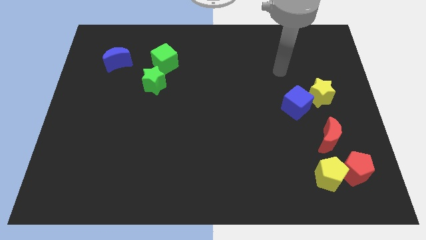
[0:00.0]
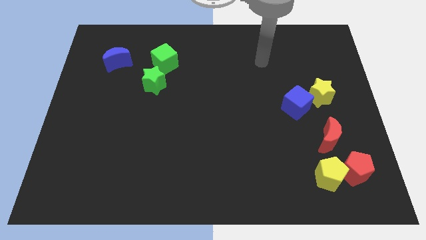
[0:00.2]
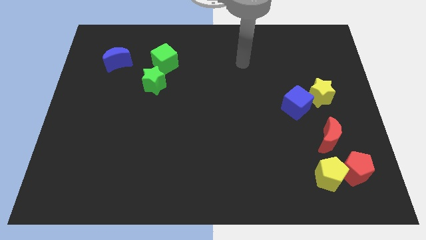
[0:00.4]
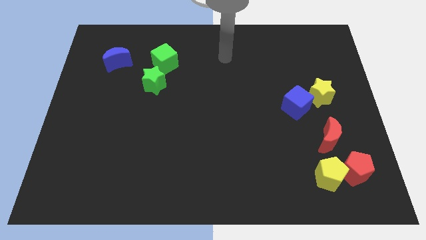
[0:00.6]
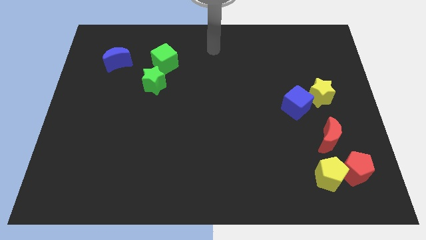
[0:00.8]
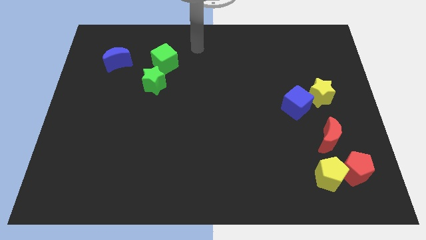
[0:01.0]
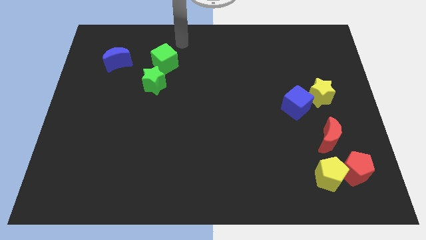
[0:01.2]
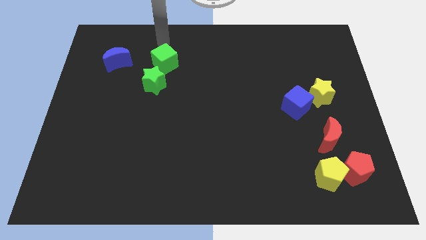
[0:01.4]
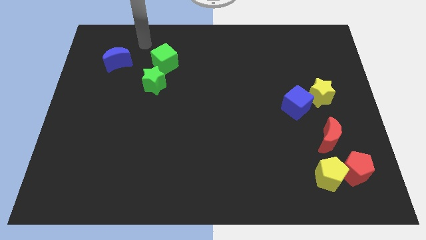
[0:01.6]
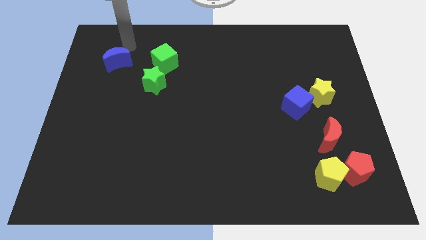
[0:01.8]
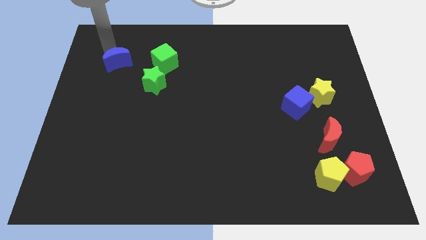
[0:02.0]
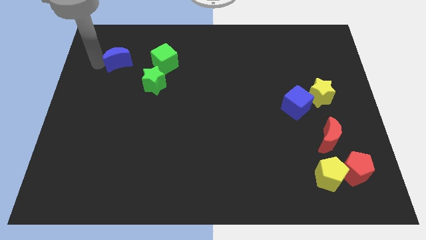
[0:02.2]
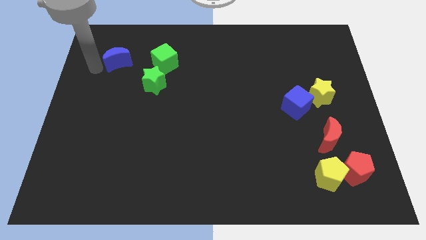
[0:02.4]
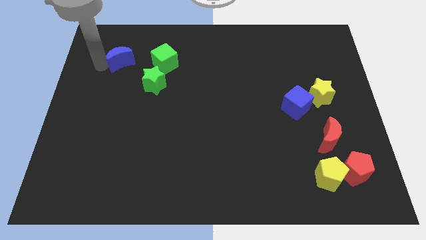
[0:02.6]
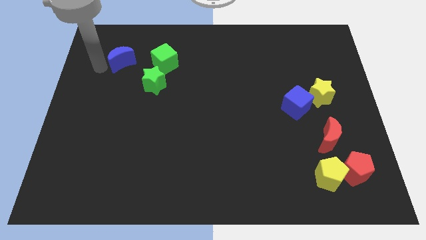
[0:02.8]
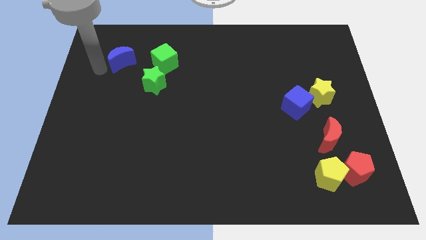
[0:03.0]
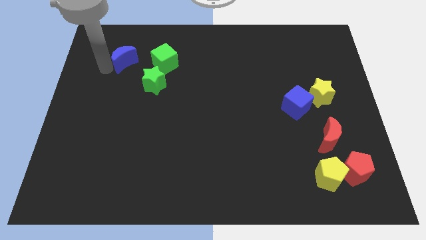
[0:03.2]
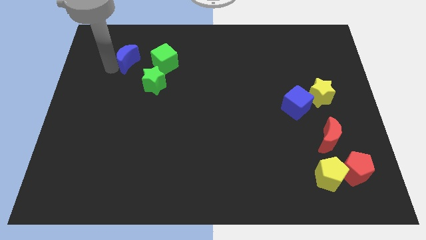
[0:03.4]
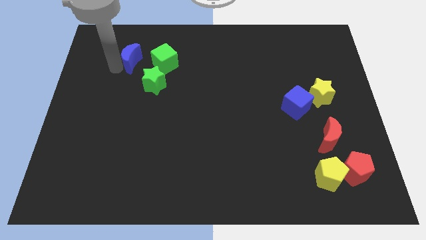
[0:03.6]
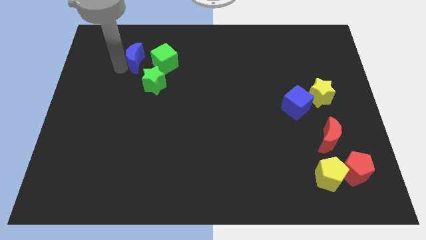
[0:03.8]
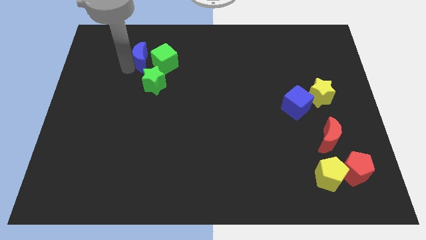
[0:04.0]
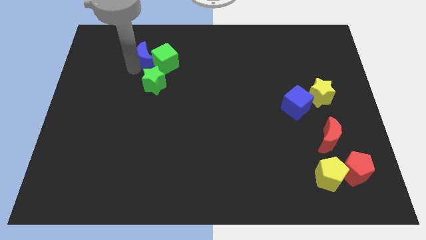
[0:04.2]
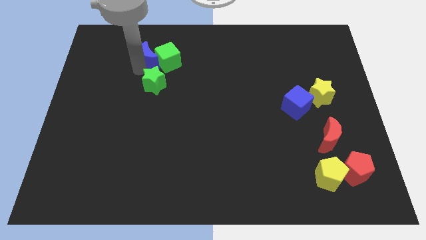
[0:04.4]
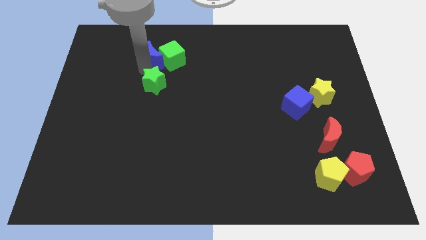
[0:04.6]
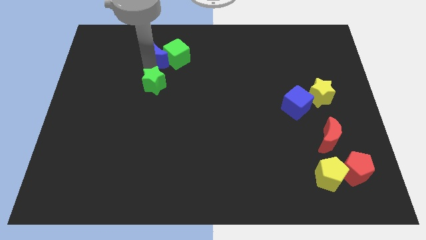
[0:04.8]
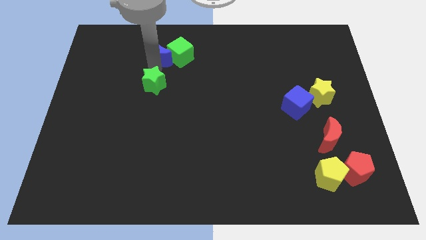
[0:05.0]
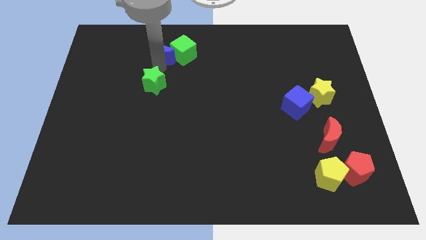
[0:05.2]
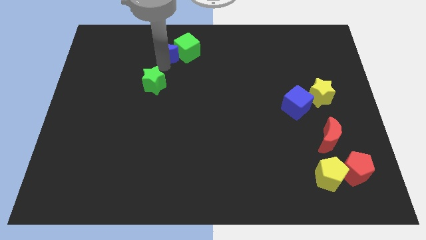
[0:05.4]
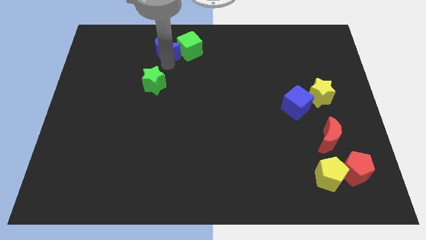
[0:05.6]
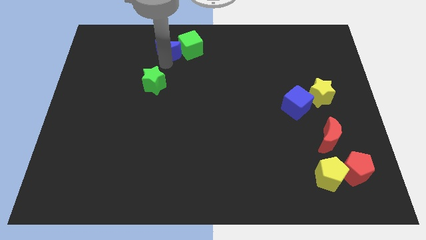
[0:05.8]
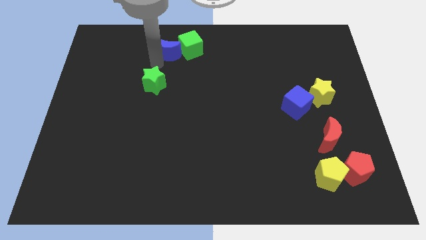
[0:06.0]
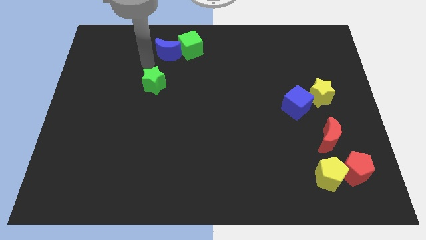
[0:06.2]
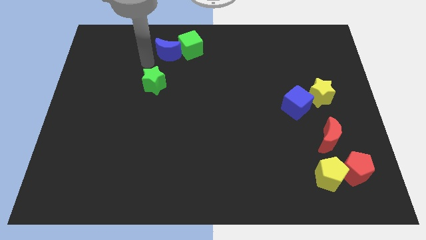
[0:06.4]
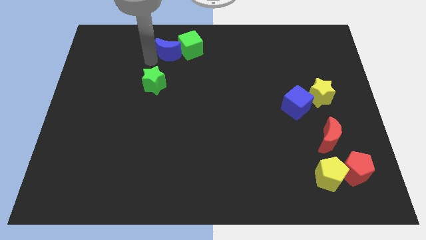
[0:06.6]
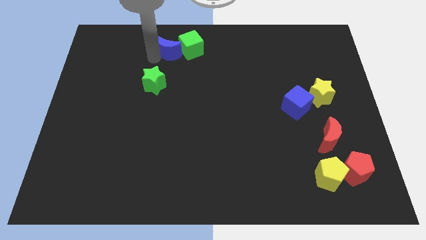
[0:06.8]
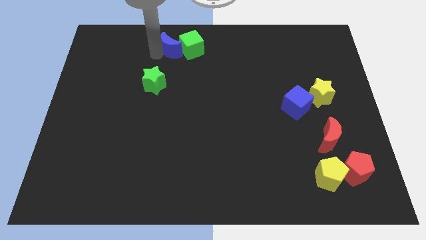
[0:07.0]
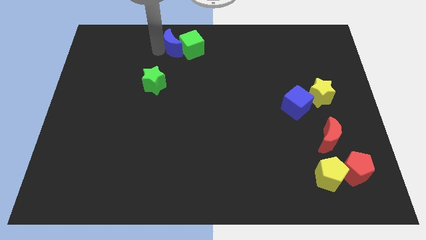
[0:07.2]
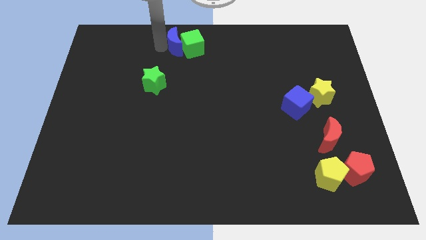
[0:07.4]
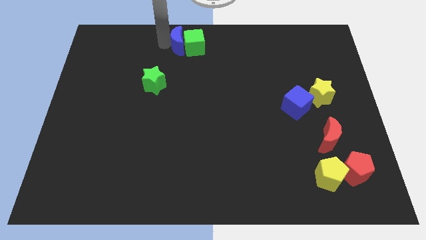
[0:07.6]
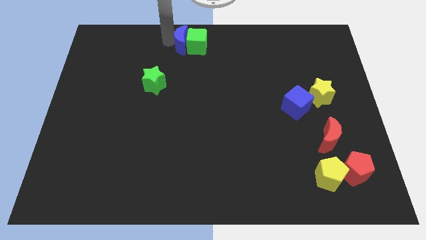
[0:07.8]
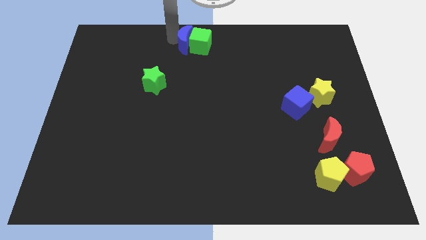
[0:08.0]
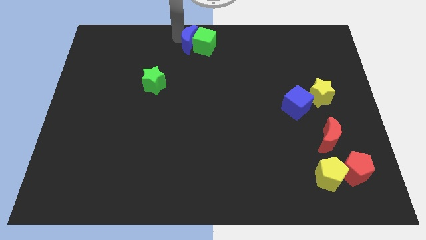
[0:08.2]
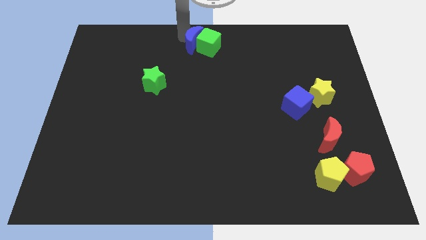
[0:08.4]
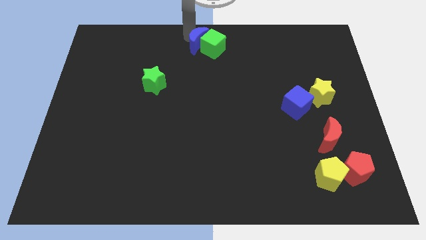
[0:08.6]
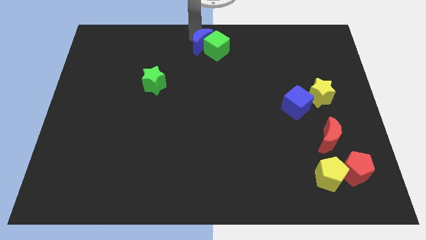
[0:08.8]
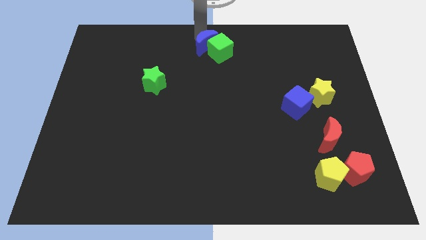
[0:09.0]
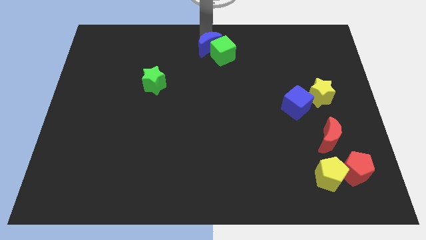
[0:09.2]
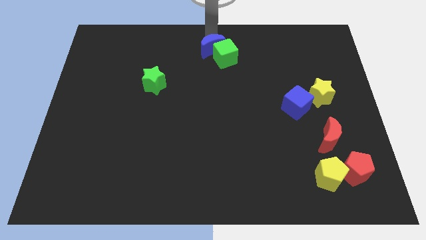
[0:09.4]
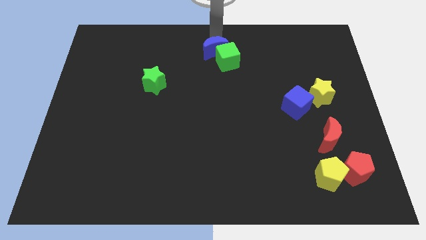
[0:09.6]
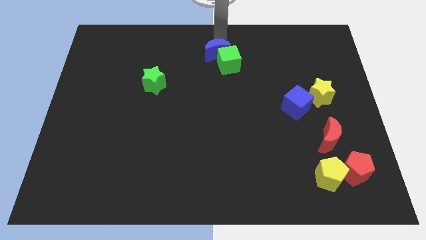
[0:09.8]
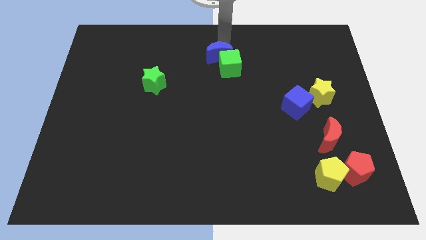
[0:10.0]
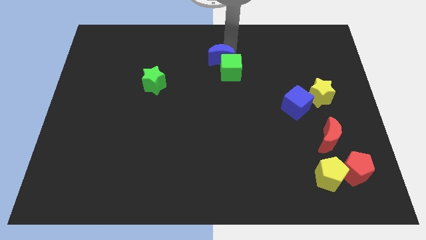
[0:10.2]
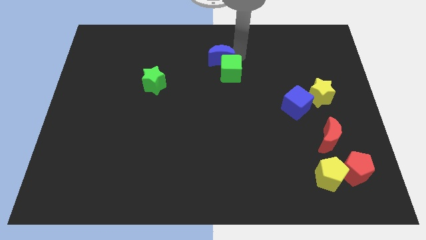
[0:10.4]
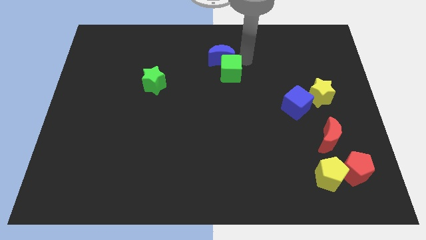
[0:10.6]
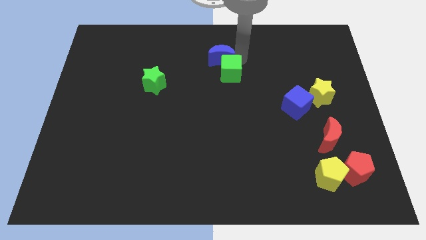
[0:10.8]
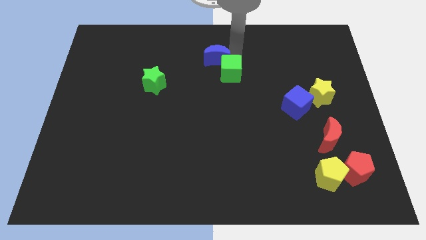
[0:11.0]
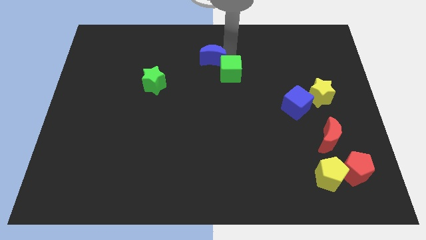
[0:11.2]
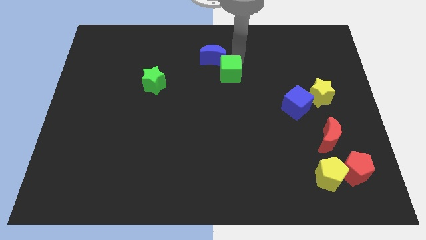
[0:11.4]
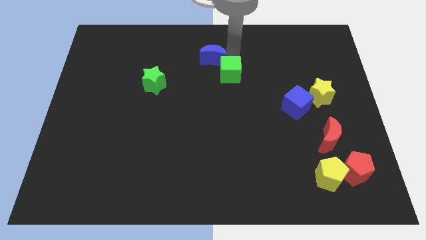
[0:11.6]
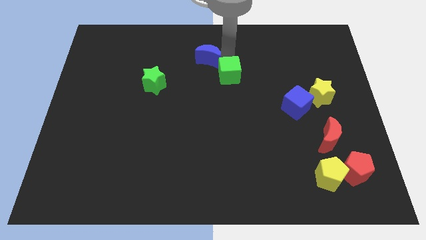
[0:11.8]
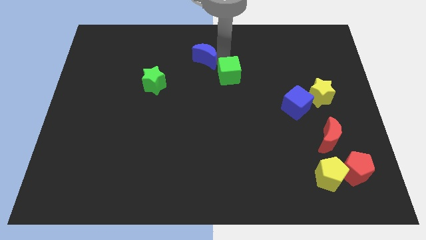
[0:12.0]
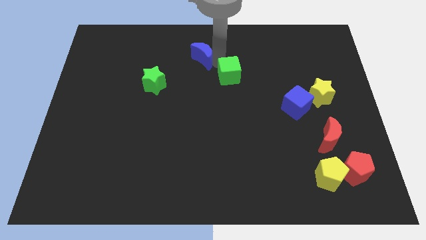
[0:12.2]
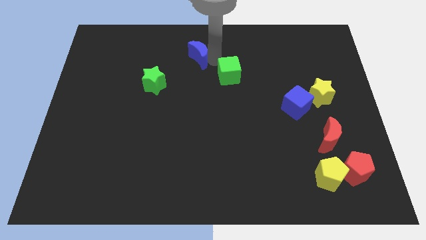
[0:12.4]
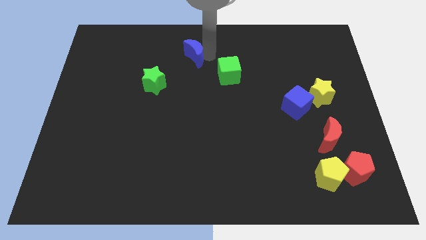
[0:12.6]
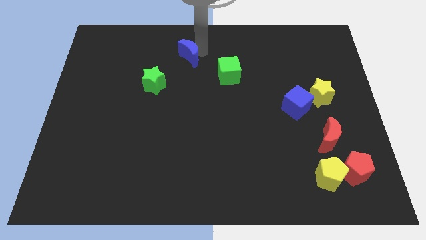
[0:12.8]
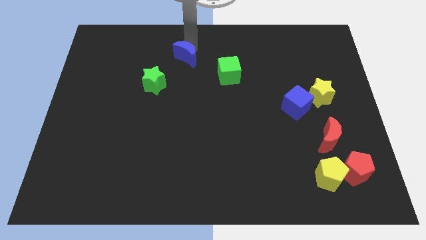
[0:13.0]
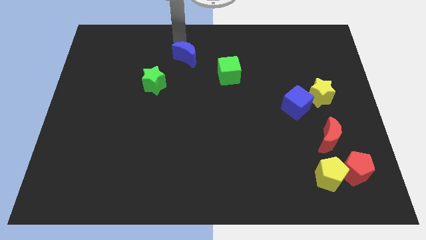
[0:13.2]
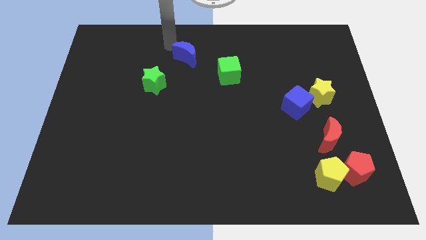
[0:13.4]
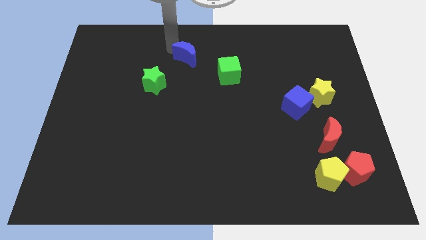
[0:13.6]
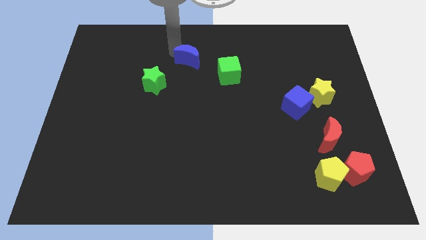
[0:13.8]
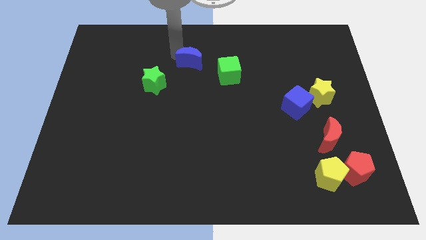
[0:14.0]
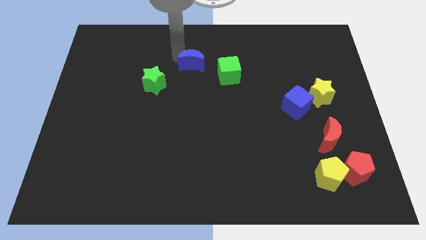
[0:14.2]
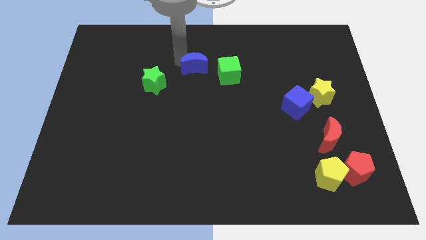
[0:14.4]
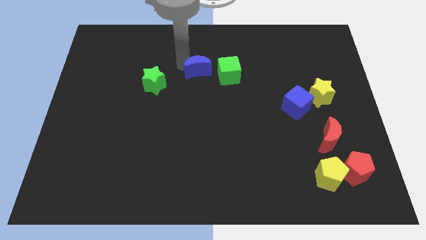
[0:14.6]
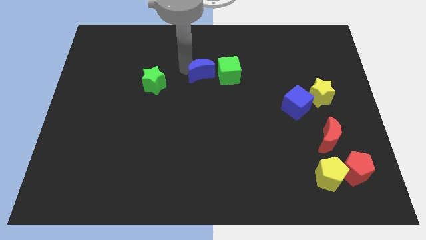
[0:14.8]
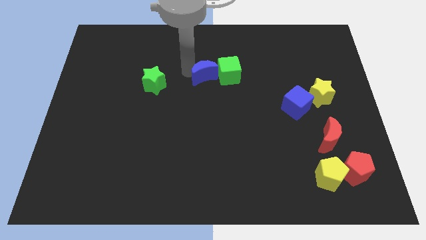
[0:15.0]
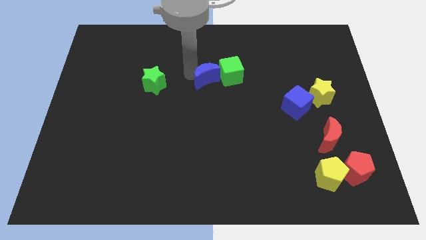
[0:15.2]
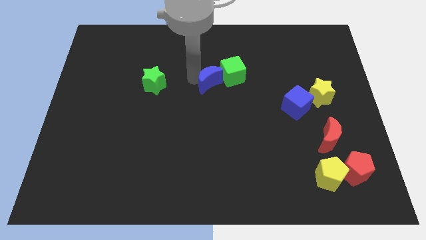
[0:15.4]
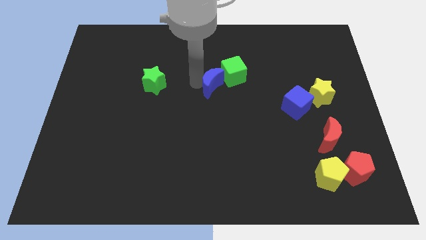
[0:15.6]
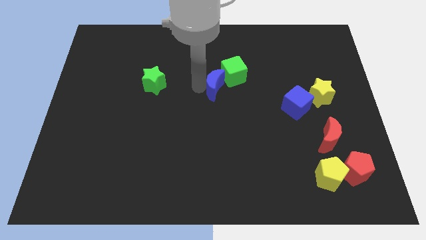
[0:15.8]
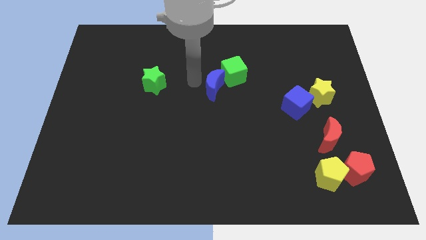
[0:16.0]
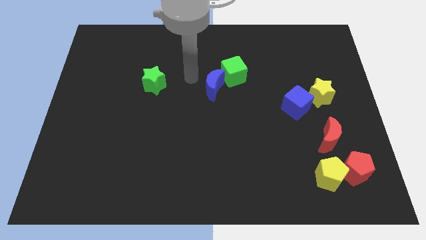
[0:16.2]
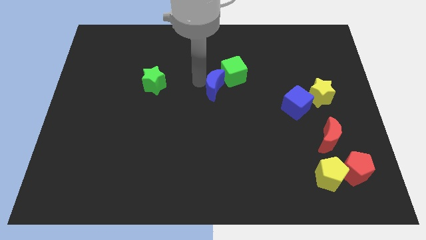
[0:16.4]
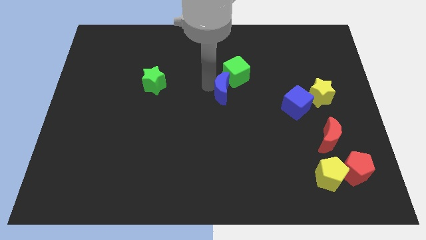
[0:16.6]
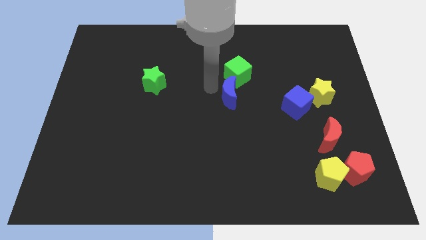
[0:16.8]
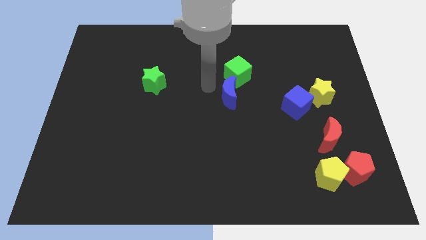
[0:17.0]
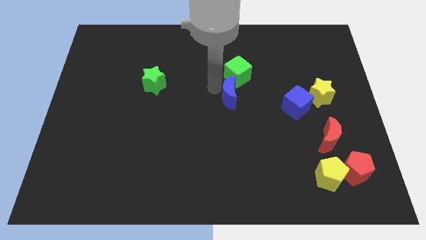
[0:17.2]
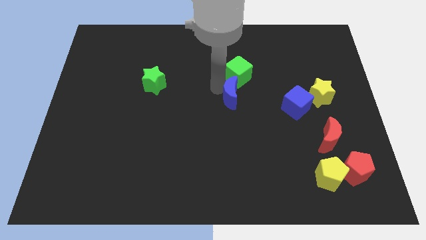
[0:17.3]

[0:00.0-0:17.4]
move the blue moon left of the blue cube
